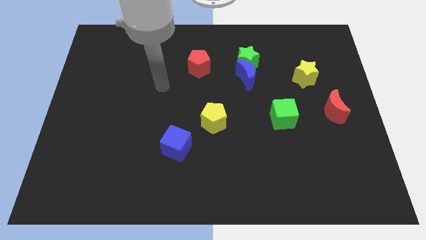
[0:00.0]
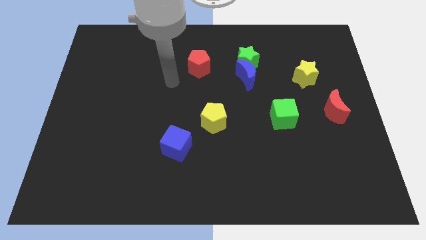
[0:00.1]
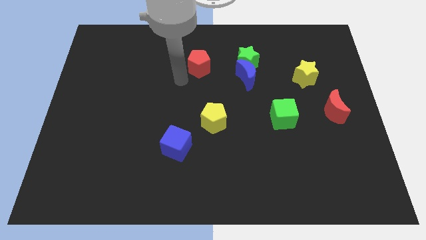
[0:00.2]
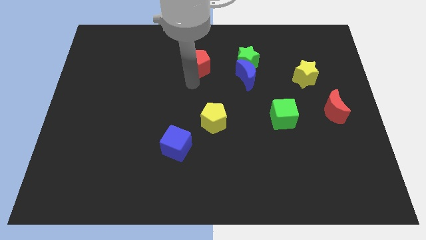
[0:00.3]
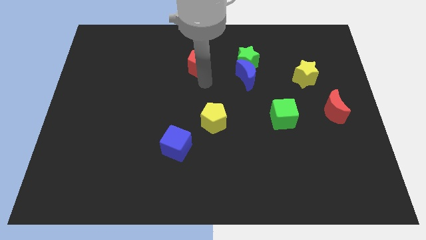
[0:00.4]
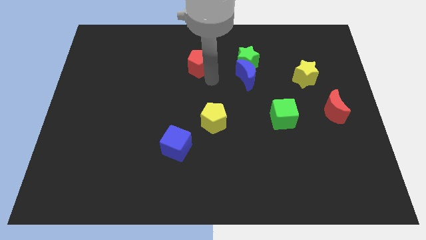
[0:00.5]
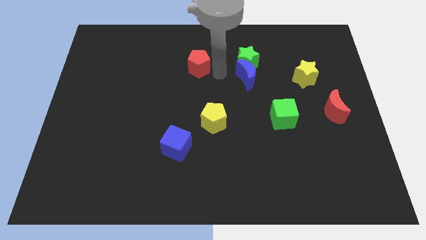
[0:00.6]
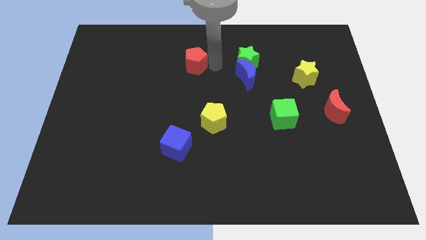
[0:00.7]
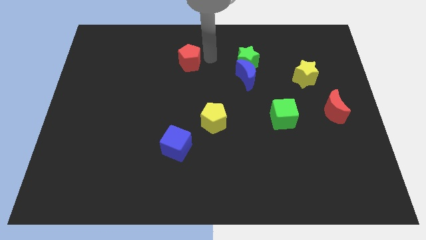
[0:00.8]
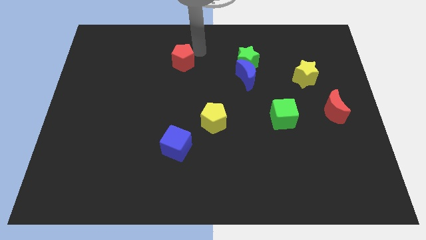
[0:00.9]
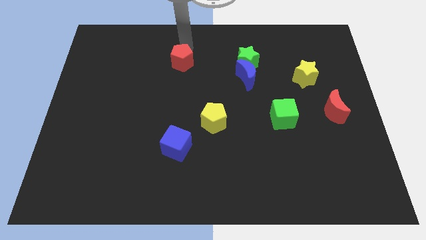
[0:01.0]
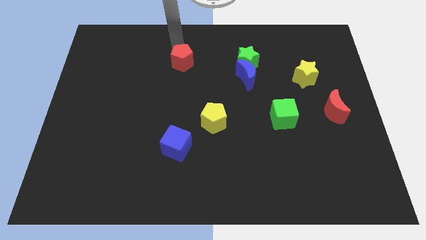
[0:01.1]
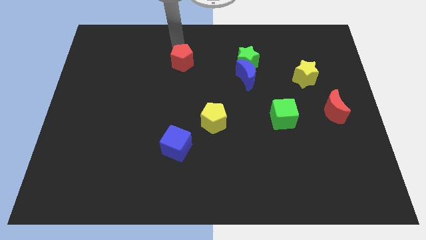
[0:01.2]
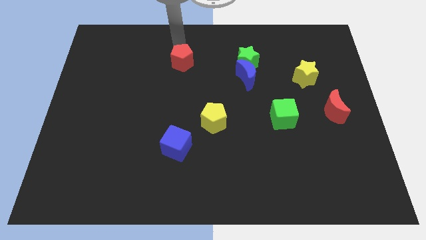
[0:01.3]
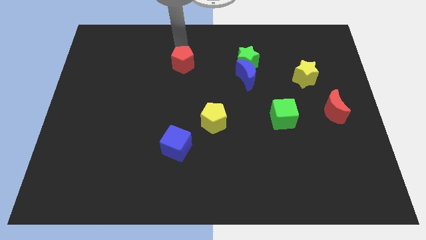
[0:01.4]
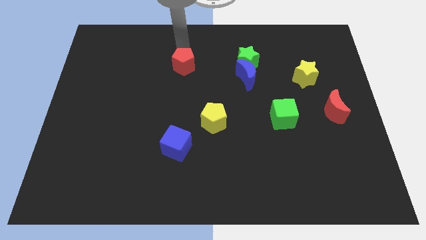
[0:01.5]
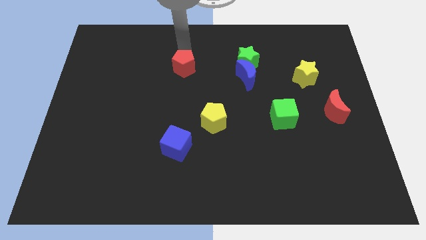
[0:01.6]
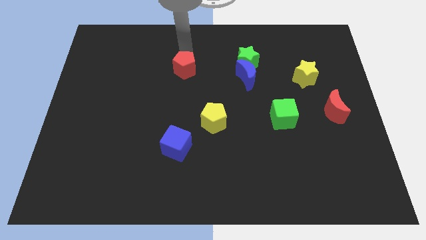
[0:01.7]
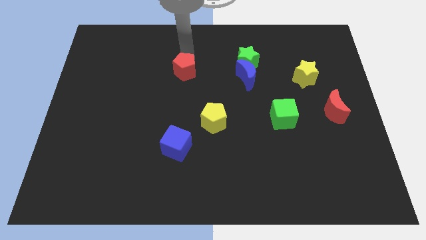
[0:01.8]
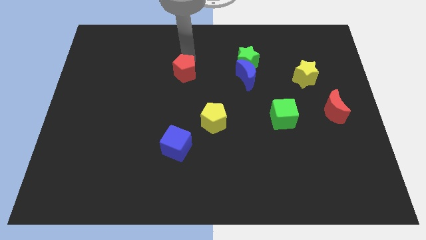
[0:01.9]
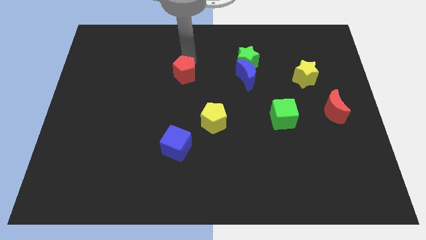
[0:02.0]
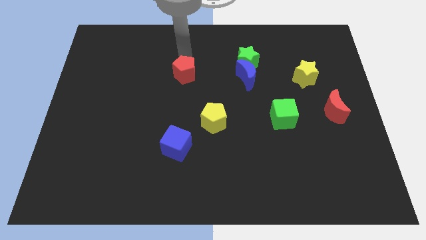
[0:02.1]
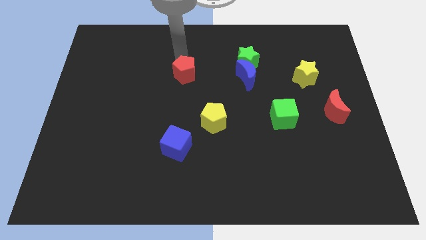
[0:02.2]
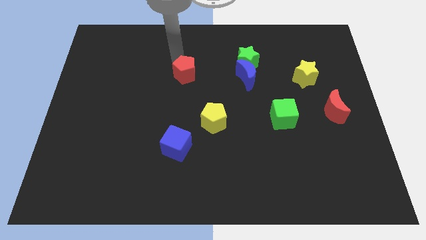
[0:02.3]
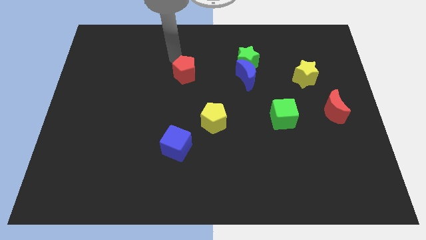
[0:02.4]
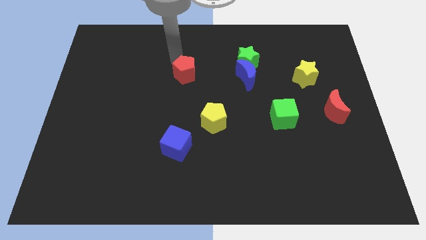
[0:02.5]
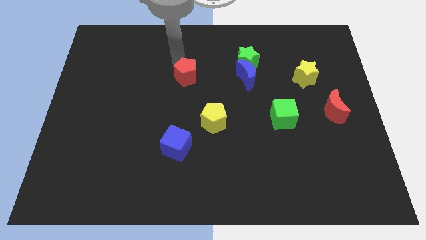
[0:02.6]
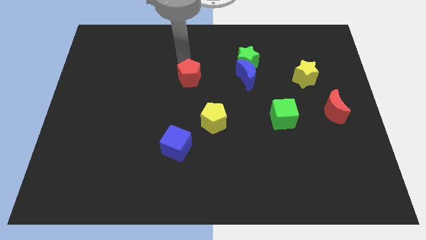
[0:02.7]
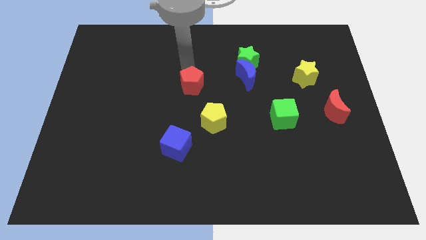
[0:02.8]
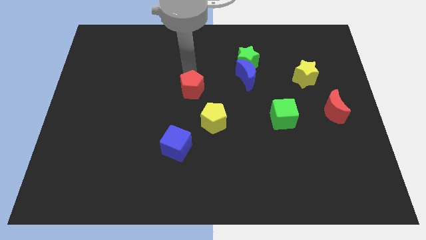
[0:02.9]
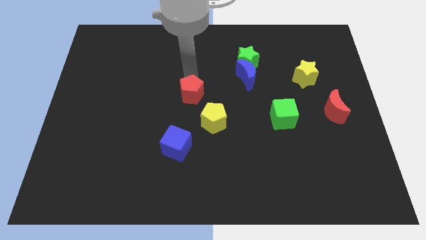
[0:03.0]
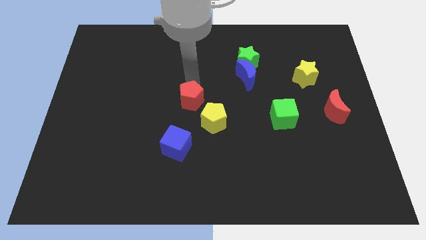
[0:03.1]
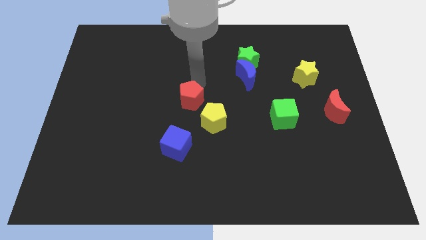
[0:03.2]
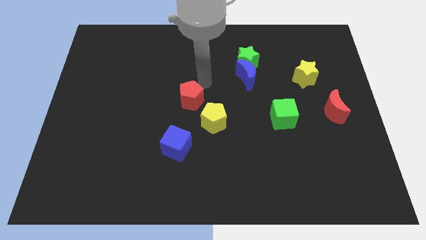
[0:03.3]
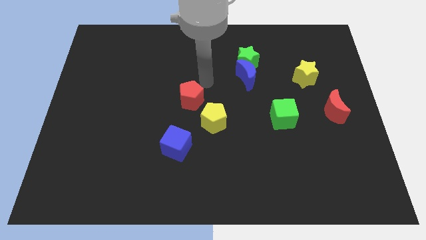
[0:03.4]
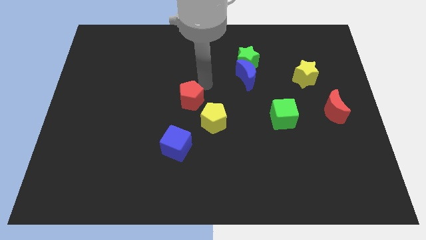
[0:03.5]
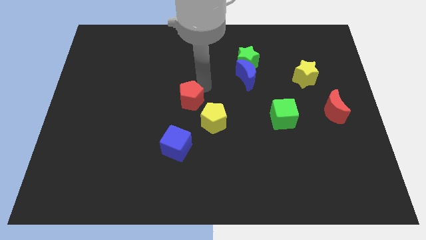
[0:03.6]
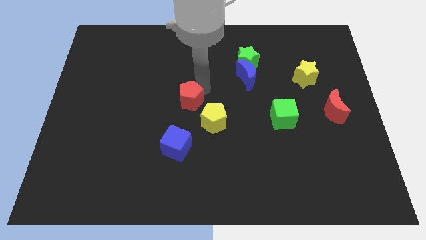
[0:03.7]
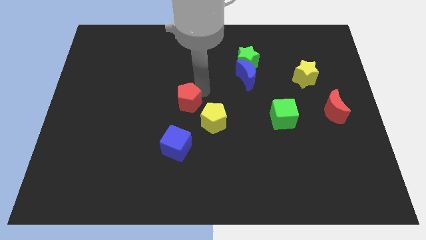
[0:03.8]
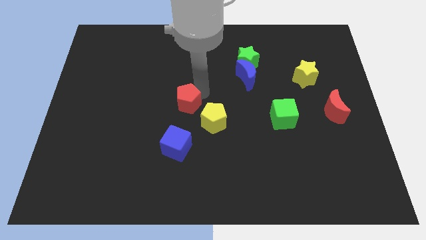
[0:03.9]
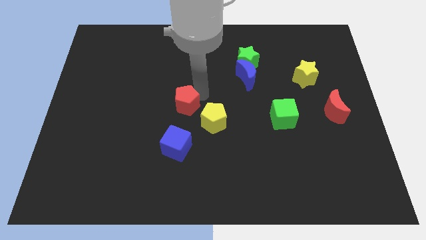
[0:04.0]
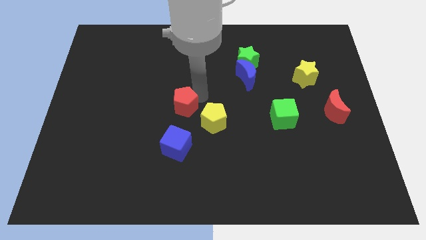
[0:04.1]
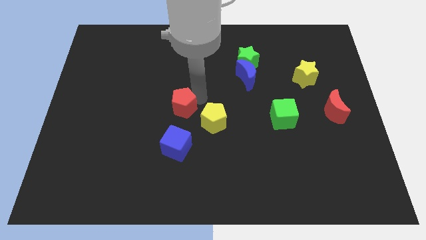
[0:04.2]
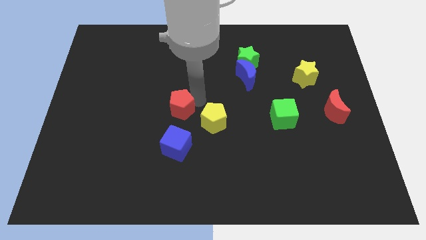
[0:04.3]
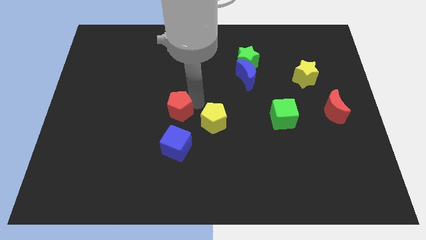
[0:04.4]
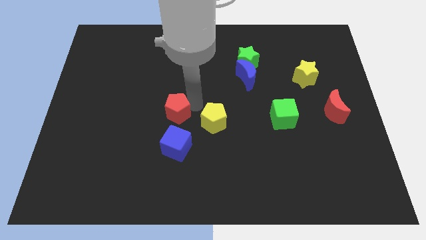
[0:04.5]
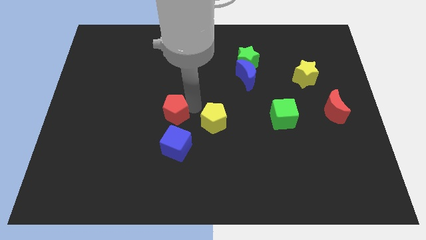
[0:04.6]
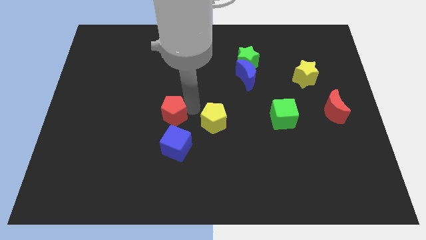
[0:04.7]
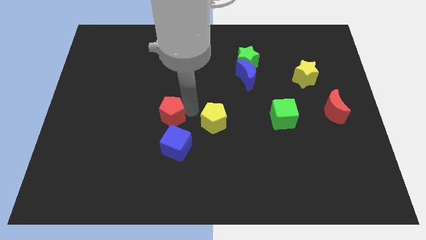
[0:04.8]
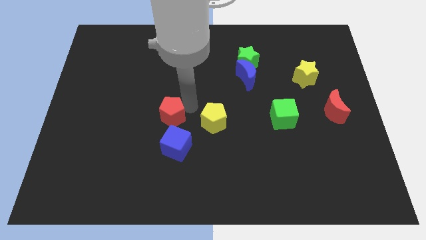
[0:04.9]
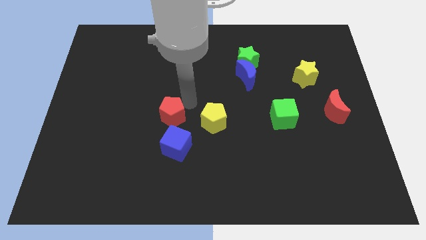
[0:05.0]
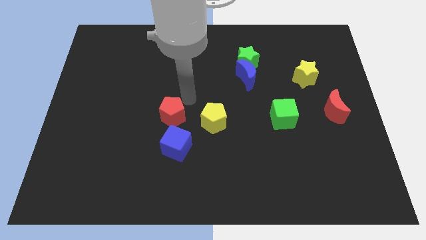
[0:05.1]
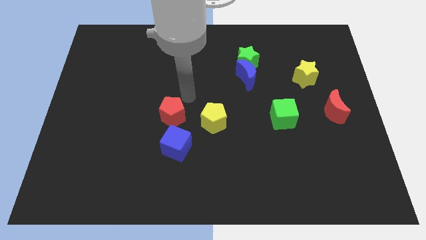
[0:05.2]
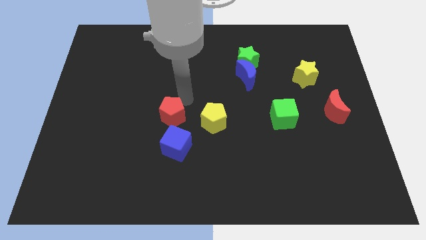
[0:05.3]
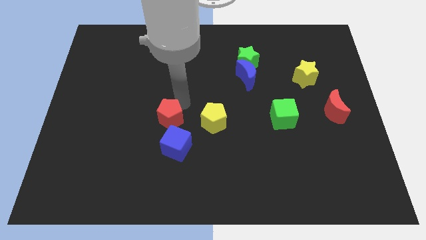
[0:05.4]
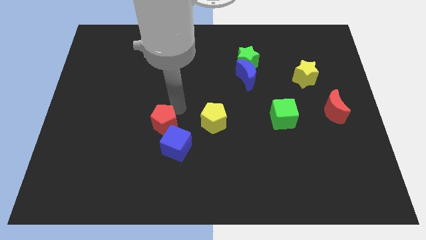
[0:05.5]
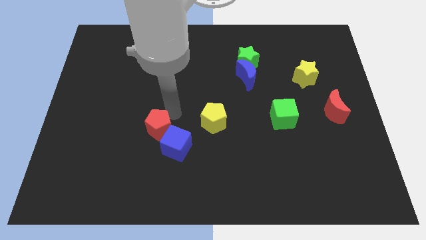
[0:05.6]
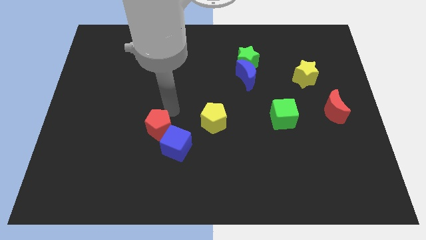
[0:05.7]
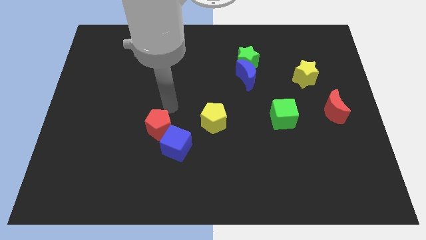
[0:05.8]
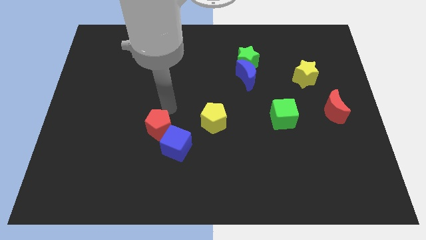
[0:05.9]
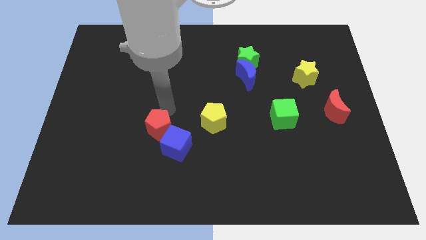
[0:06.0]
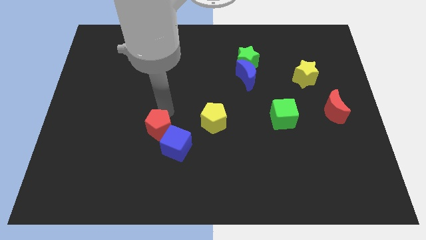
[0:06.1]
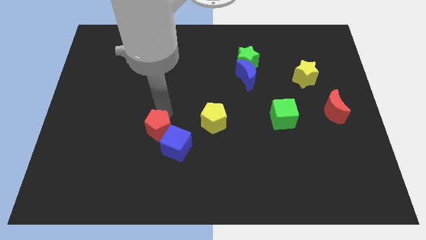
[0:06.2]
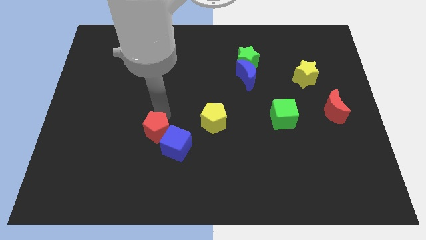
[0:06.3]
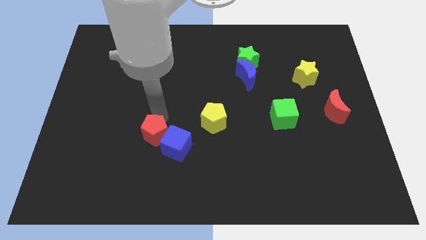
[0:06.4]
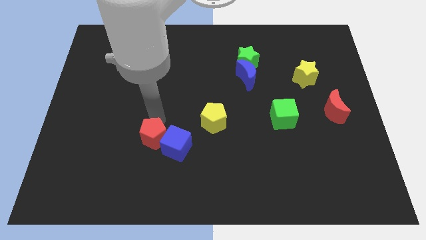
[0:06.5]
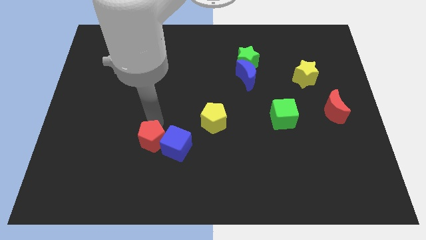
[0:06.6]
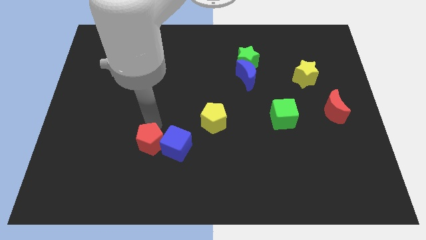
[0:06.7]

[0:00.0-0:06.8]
slide the red pentagon to the bottom left of the blue cube
